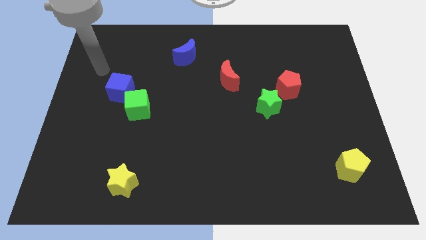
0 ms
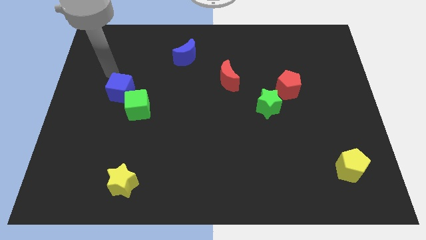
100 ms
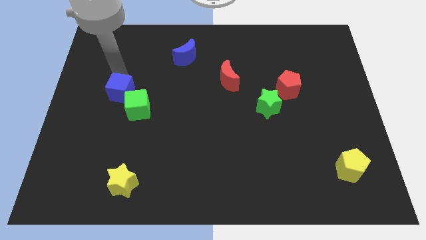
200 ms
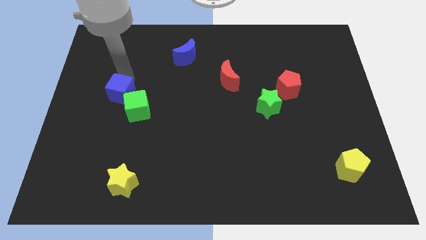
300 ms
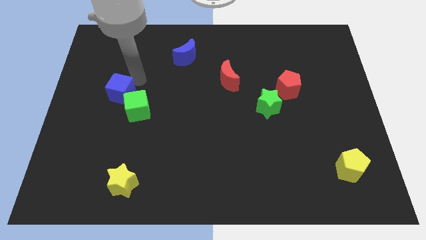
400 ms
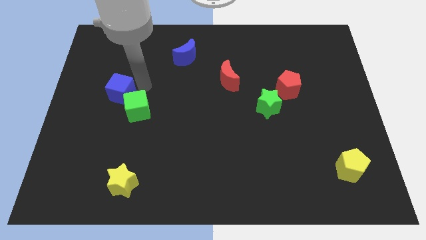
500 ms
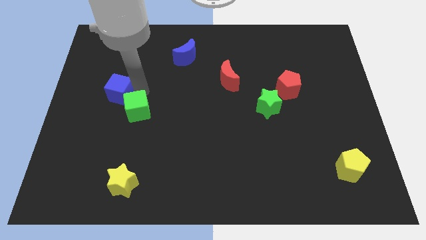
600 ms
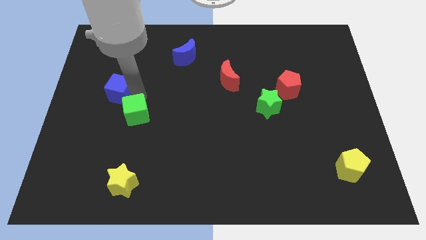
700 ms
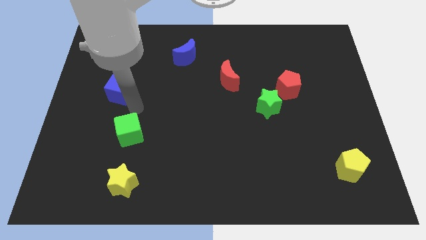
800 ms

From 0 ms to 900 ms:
move the blue cube away from the green cube

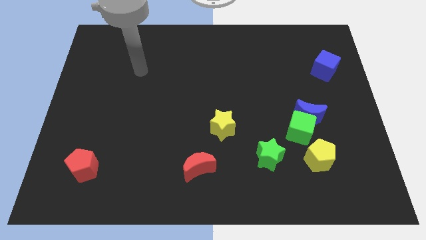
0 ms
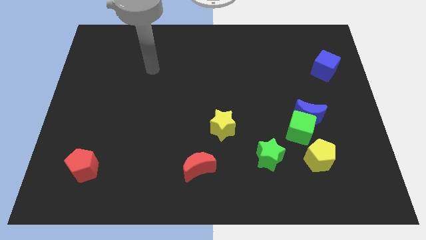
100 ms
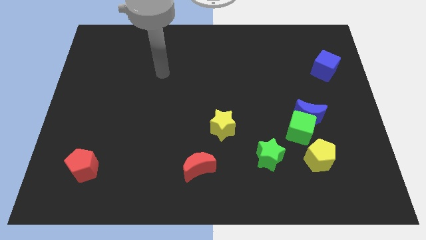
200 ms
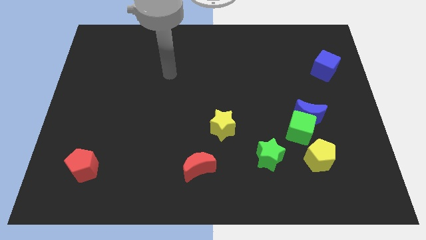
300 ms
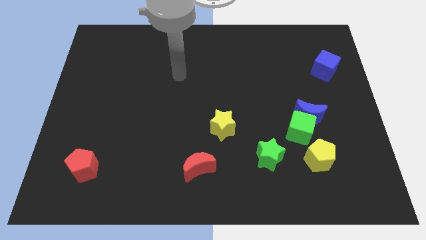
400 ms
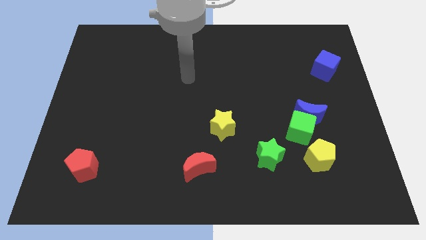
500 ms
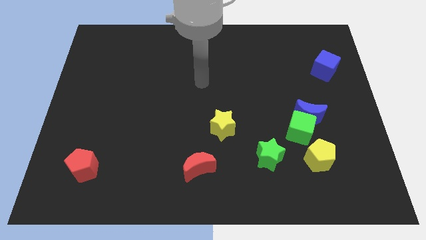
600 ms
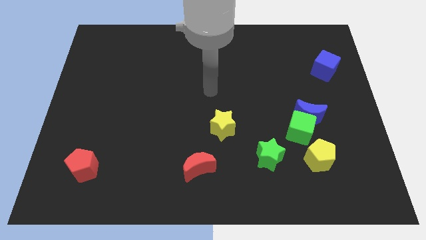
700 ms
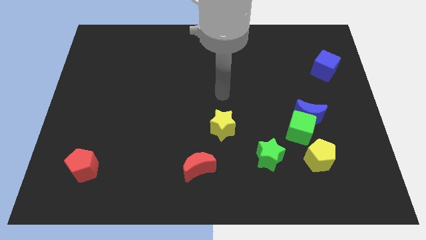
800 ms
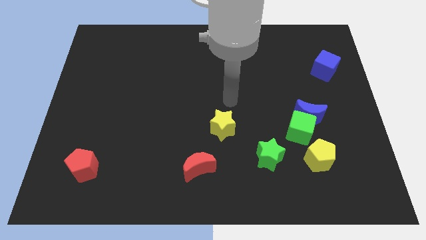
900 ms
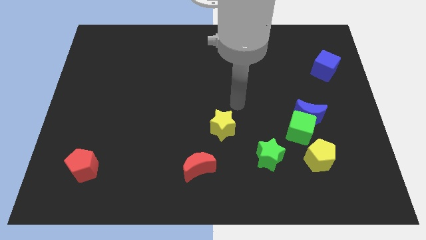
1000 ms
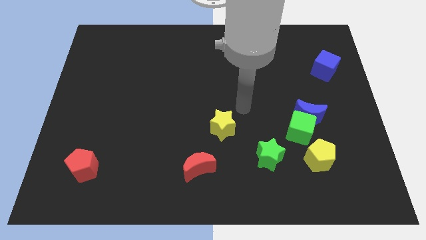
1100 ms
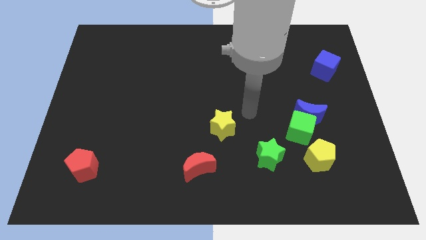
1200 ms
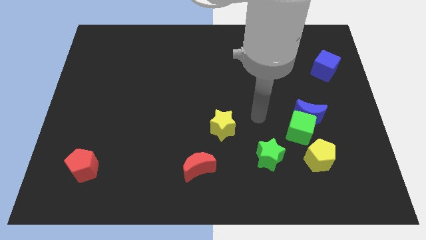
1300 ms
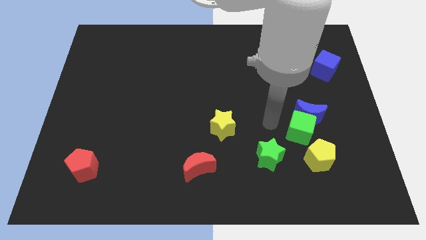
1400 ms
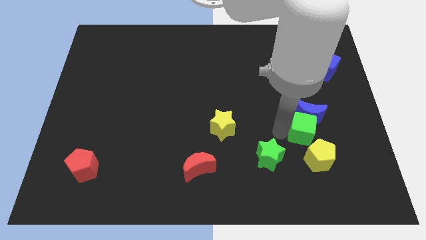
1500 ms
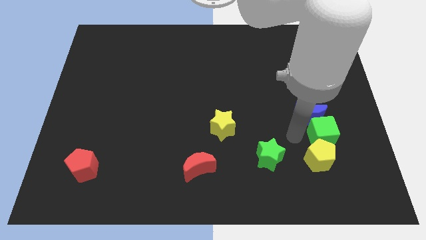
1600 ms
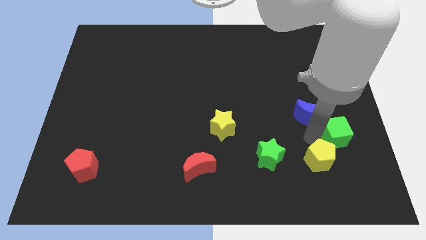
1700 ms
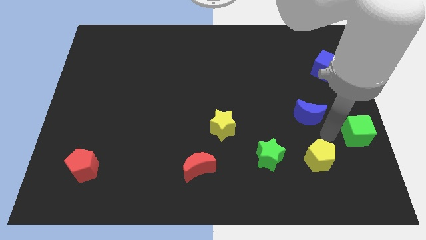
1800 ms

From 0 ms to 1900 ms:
pull the blue moon apart from the green cube

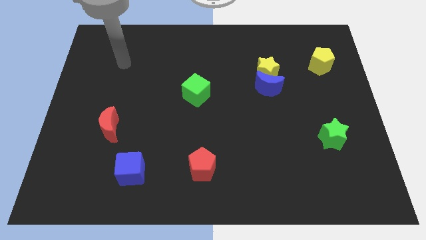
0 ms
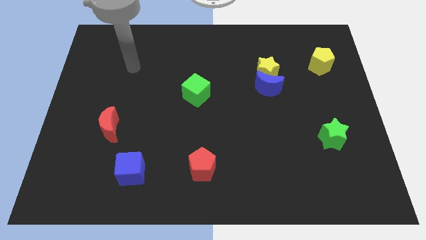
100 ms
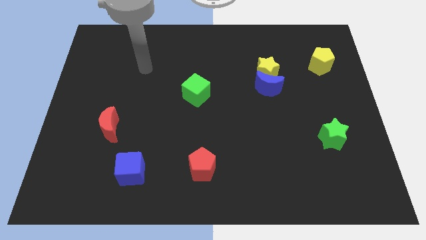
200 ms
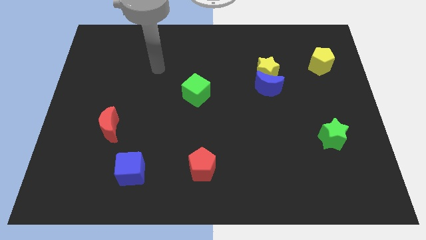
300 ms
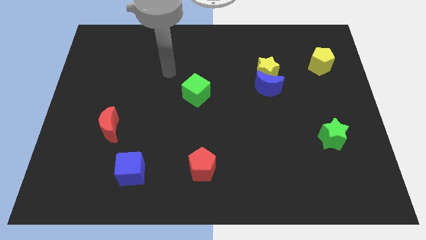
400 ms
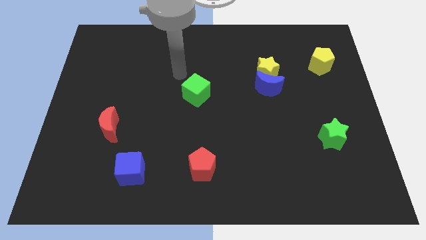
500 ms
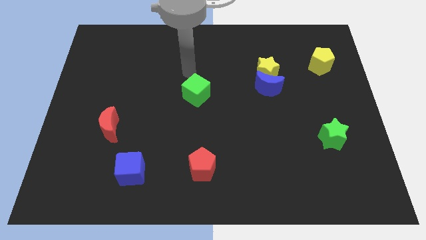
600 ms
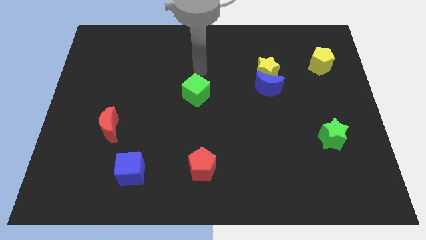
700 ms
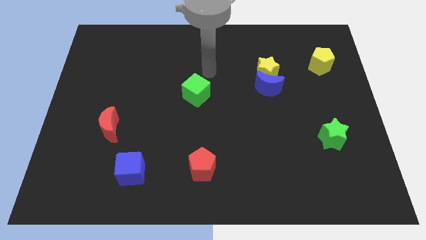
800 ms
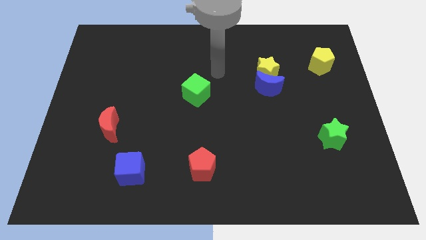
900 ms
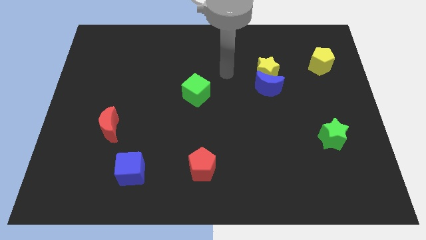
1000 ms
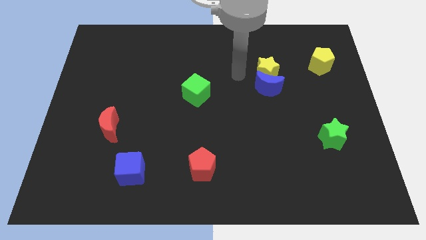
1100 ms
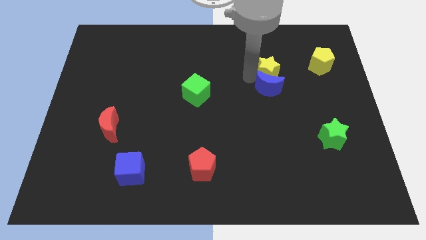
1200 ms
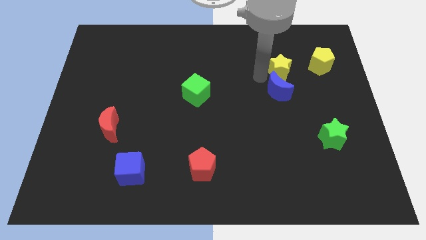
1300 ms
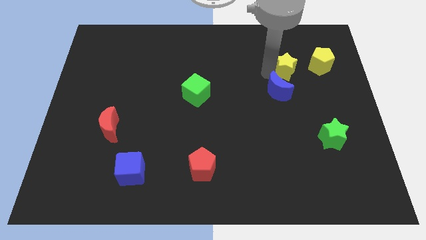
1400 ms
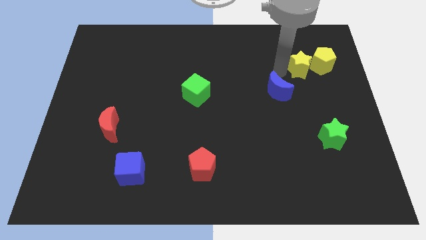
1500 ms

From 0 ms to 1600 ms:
pull the blue moon apart from the yellow star

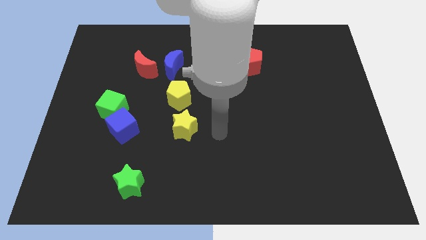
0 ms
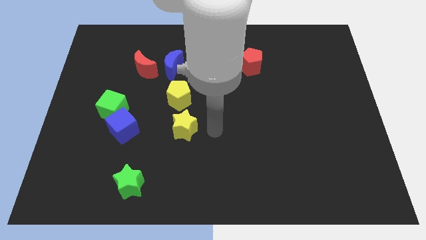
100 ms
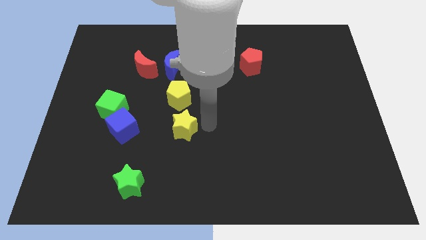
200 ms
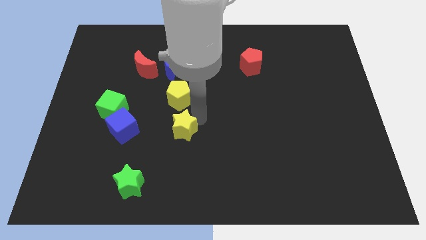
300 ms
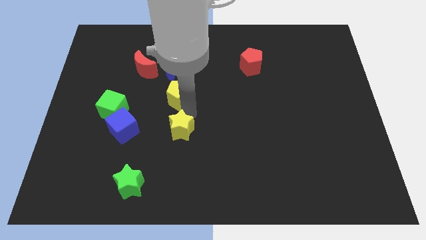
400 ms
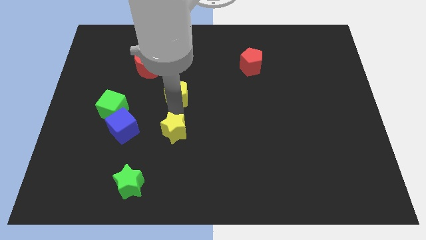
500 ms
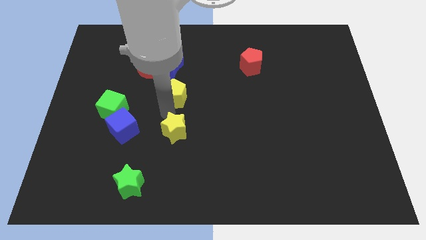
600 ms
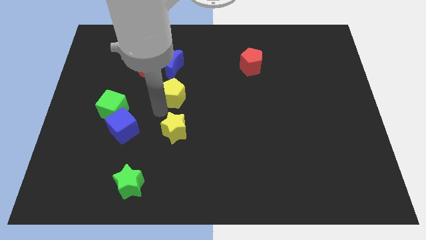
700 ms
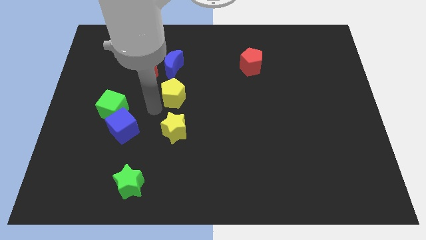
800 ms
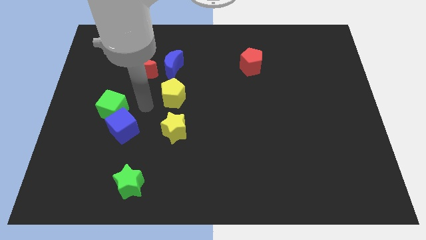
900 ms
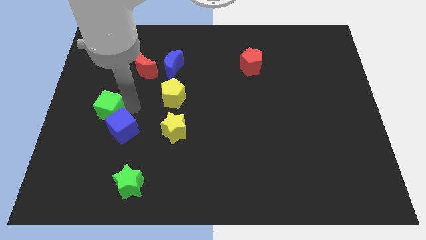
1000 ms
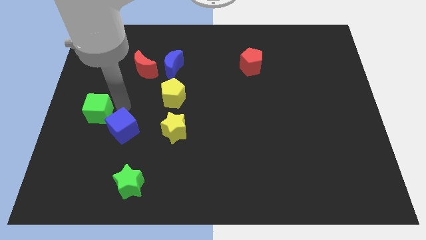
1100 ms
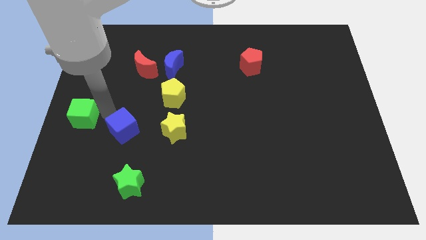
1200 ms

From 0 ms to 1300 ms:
separate the blue cube from the green cube

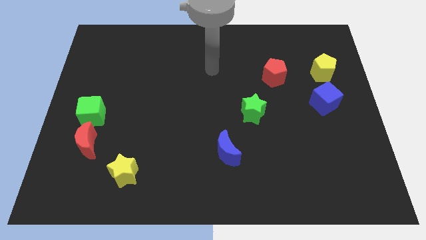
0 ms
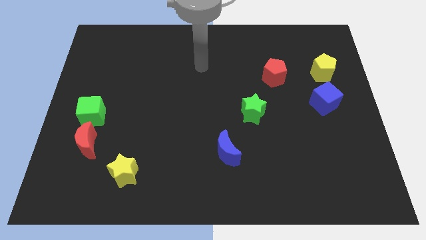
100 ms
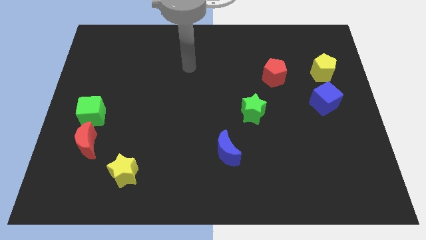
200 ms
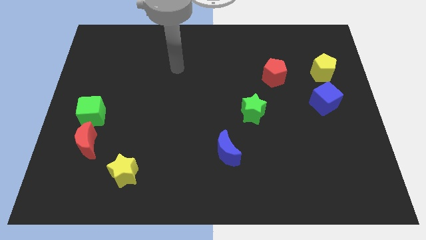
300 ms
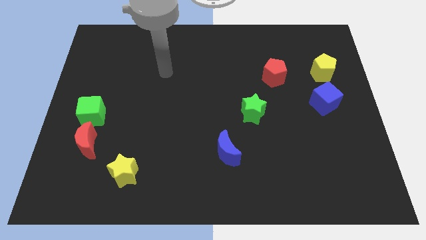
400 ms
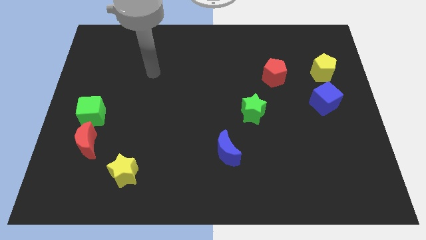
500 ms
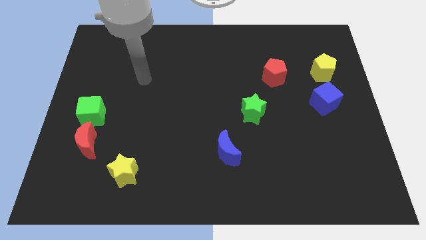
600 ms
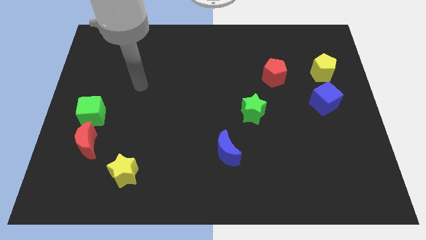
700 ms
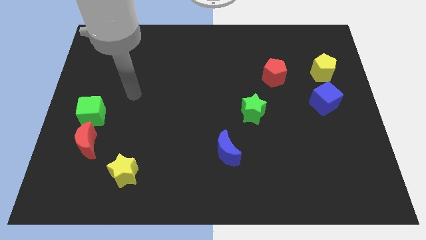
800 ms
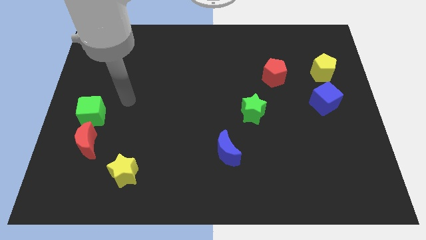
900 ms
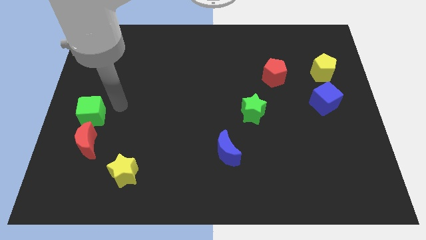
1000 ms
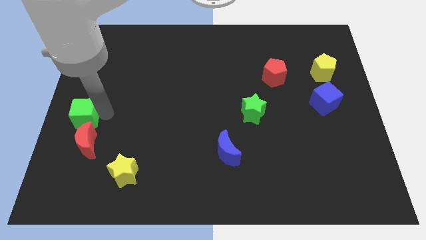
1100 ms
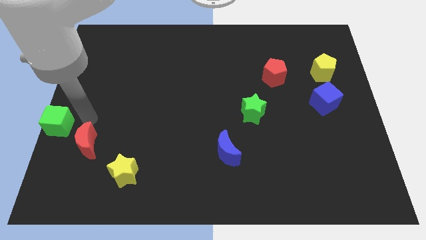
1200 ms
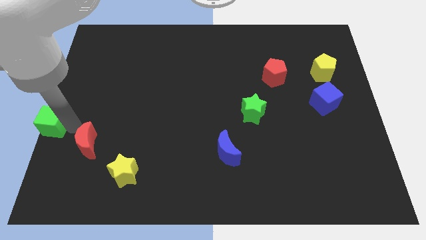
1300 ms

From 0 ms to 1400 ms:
pull the red moon apart from the green cube

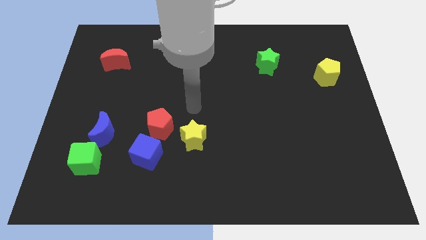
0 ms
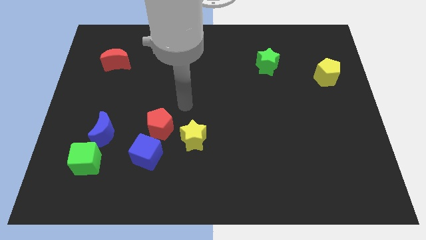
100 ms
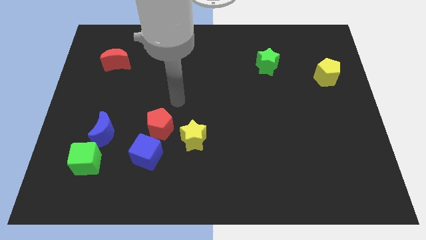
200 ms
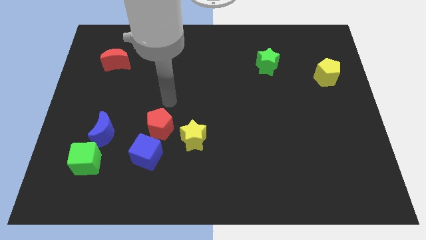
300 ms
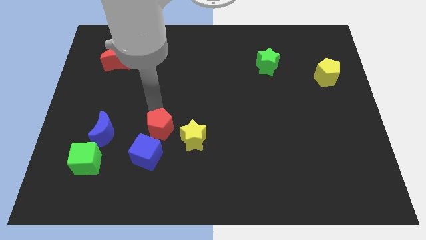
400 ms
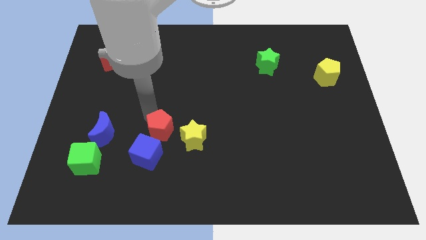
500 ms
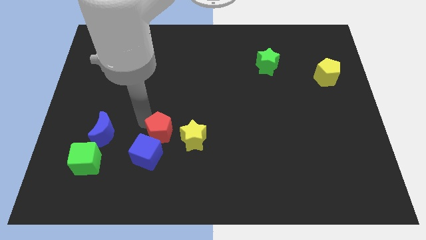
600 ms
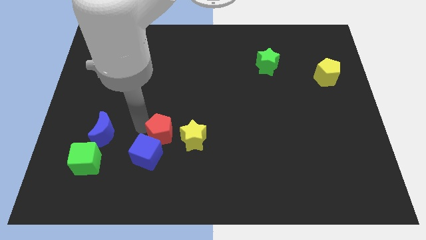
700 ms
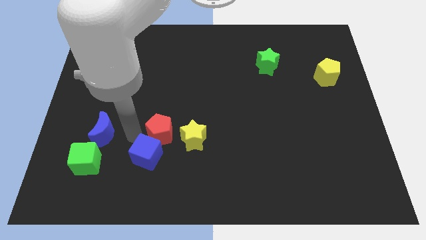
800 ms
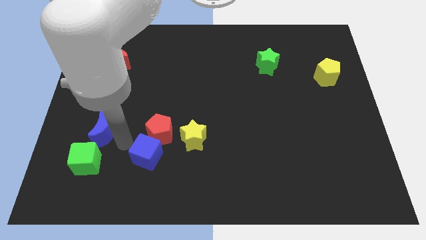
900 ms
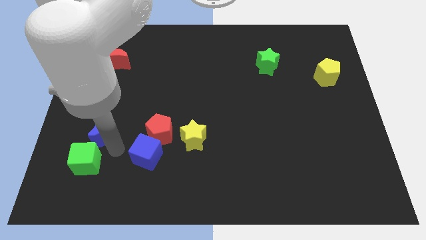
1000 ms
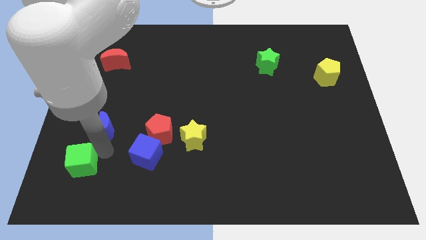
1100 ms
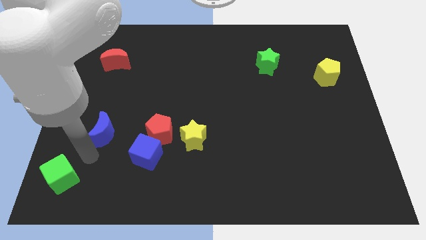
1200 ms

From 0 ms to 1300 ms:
separate the blue moon from the green cube

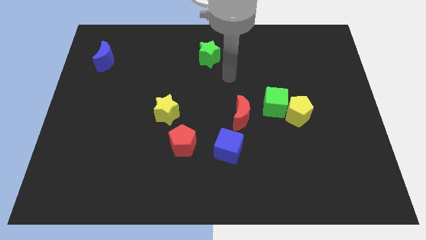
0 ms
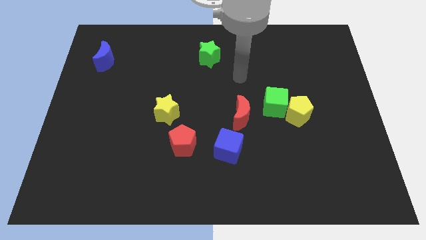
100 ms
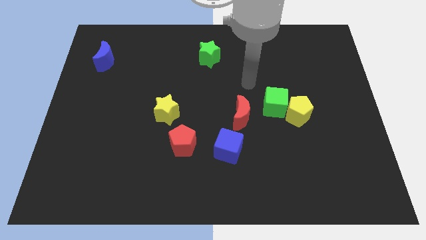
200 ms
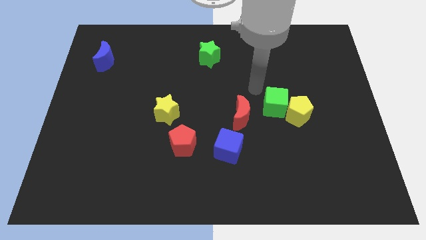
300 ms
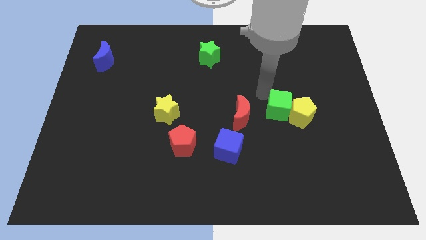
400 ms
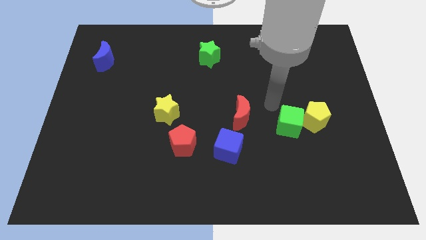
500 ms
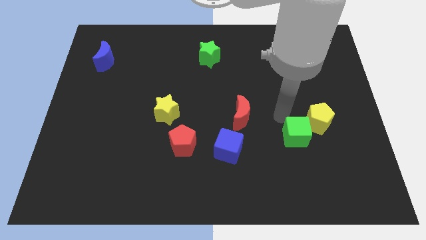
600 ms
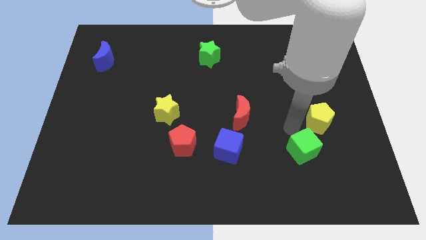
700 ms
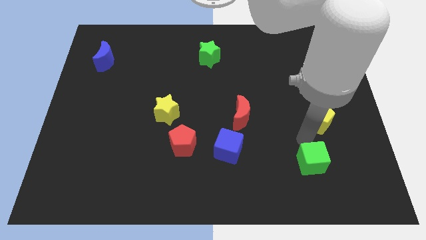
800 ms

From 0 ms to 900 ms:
separate the yellow pentagon from the green cube
